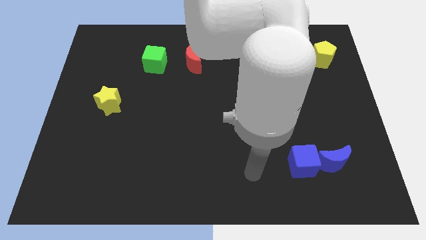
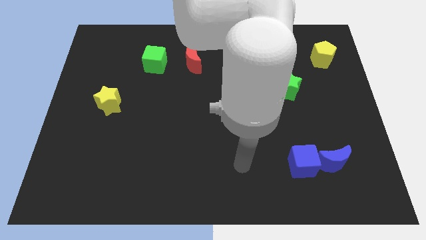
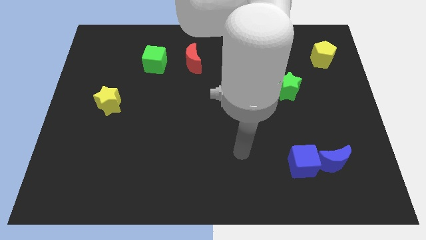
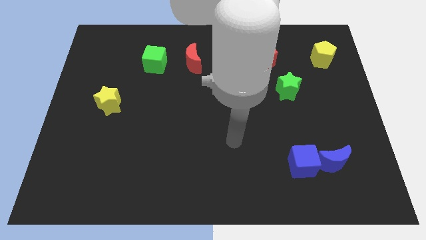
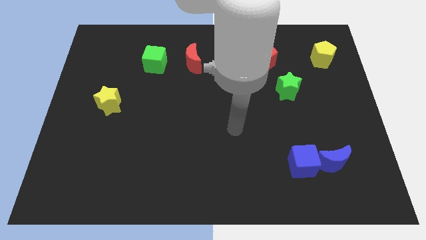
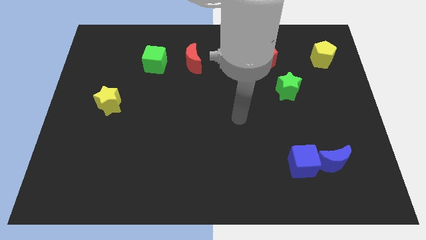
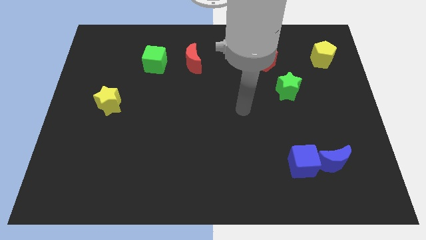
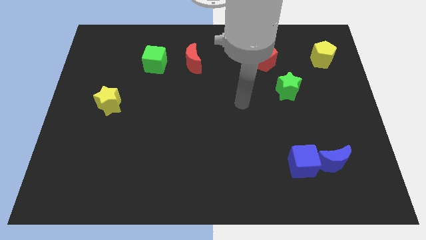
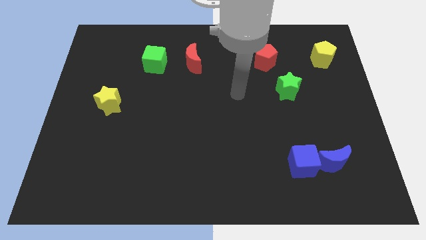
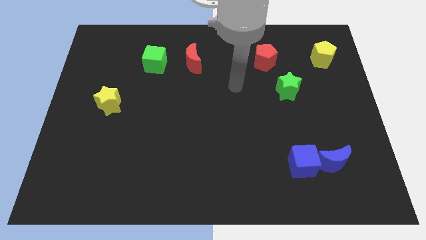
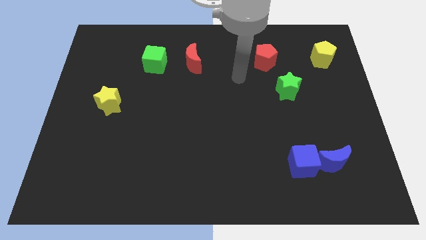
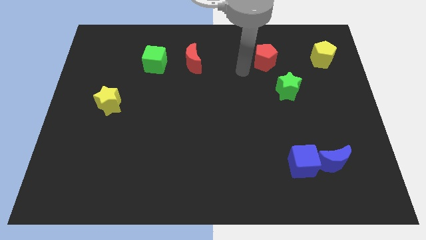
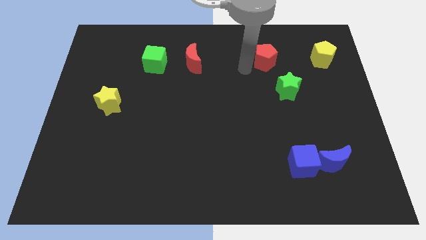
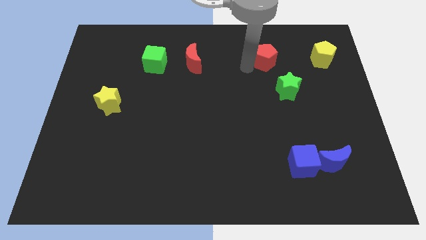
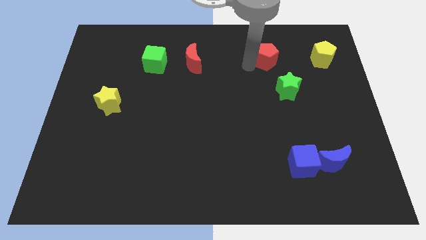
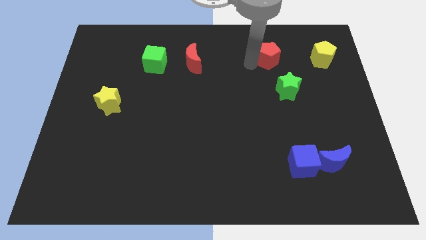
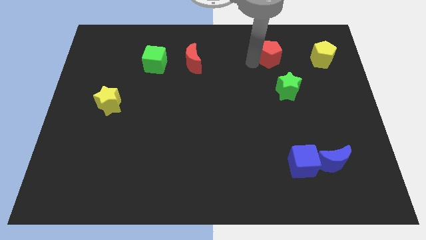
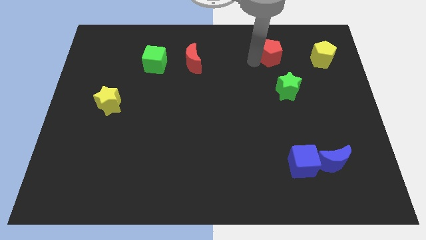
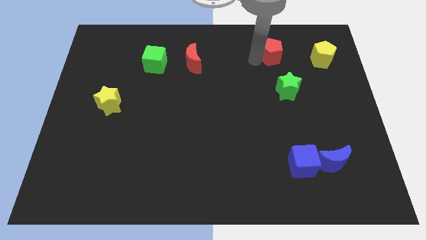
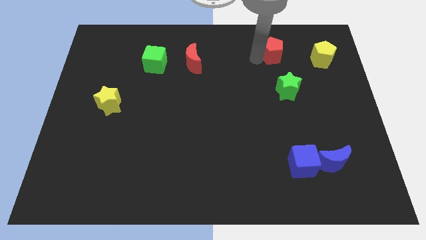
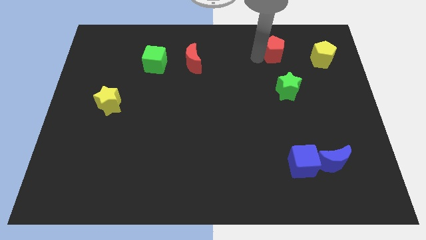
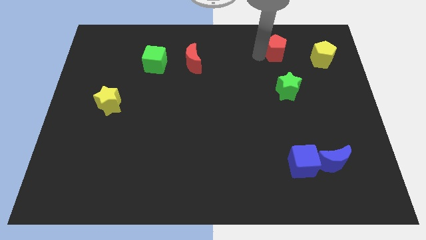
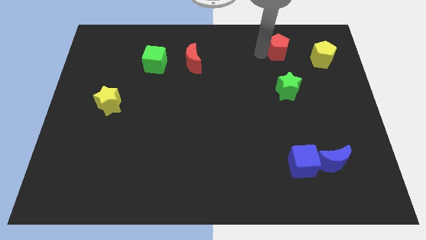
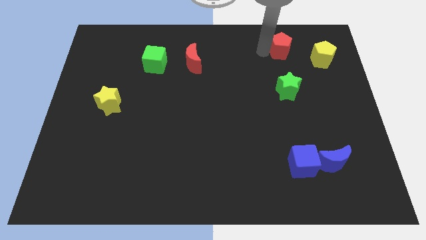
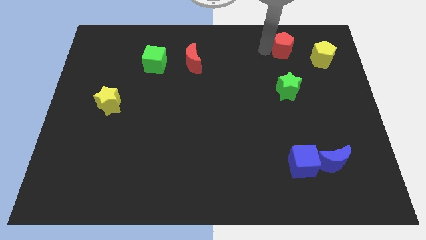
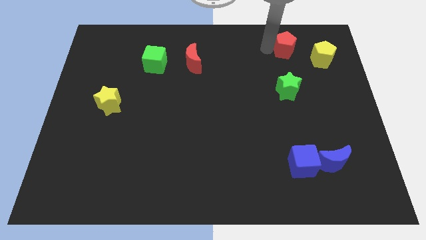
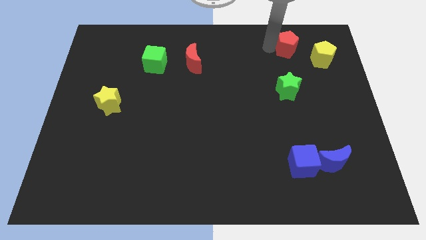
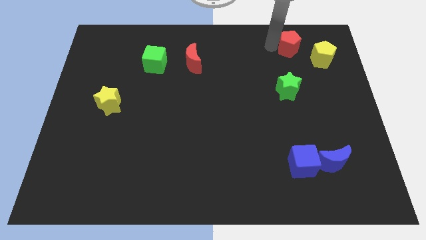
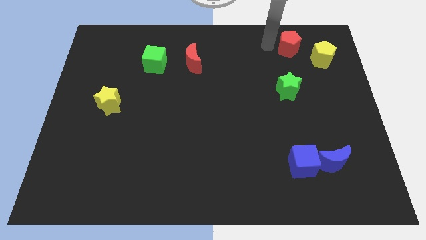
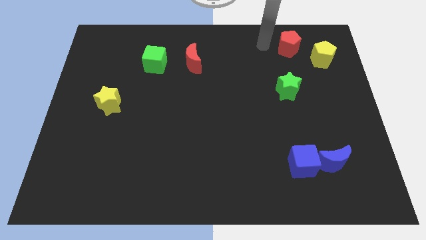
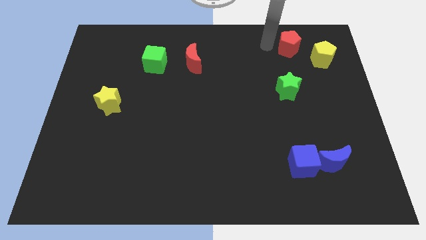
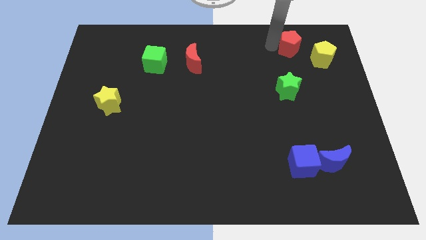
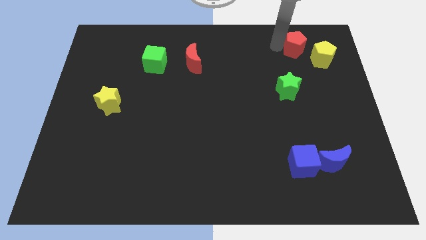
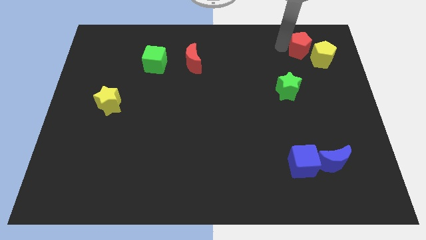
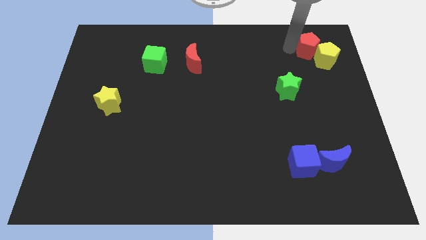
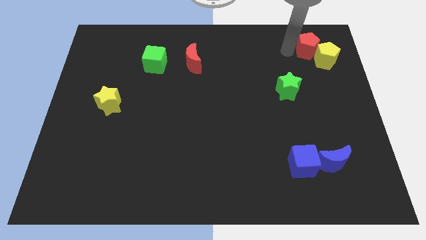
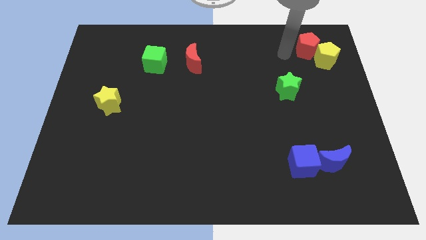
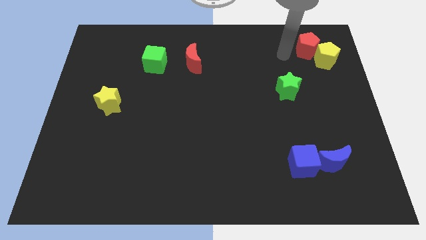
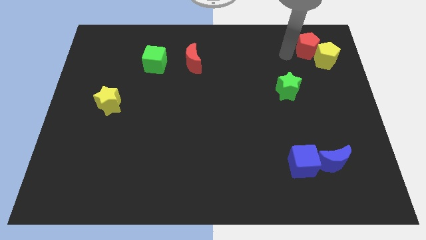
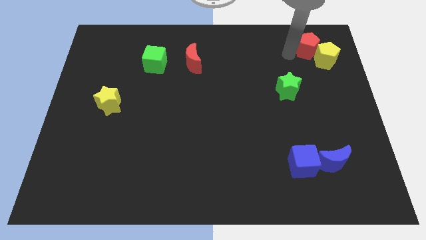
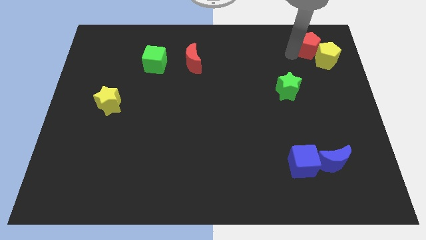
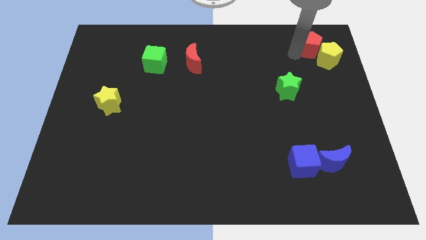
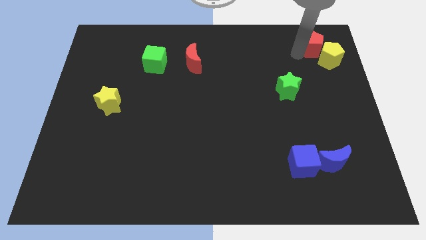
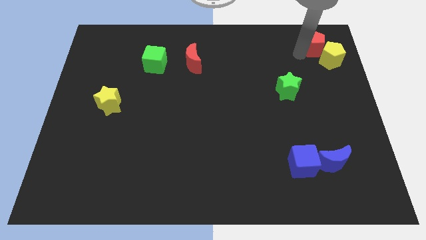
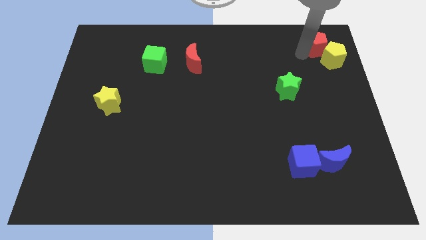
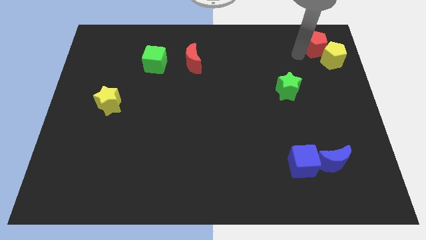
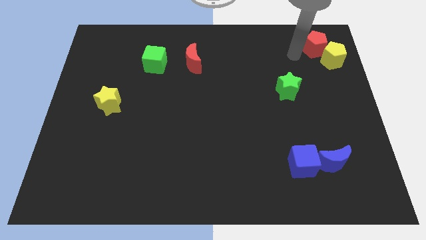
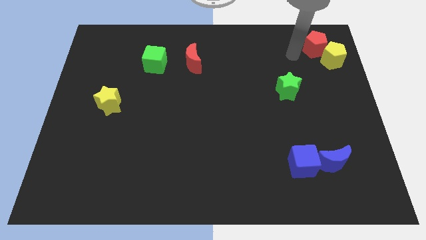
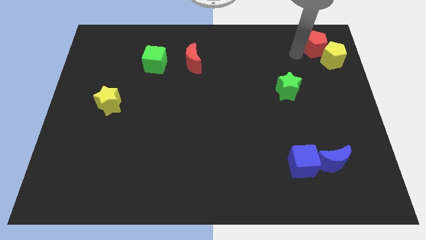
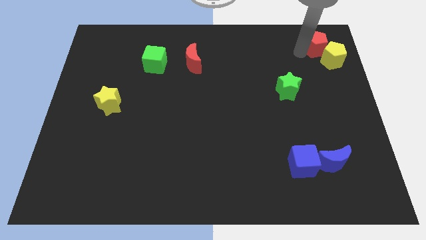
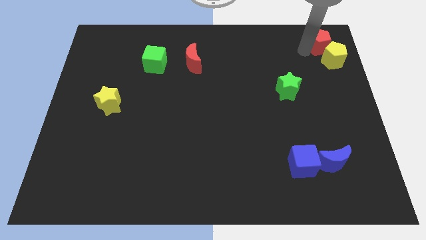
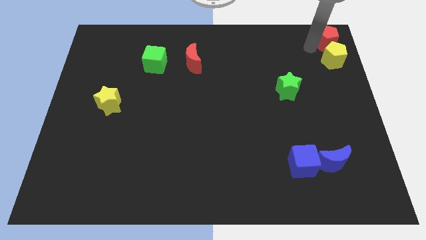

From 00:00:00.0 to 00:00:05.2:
move the red pentagon to the top right

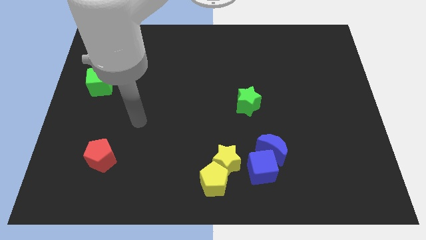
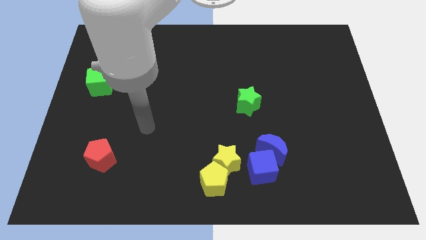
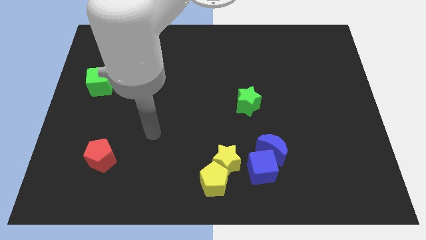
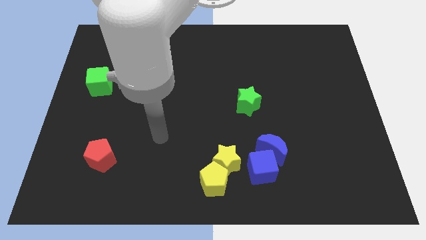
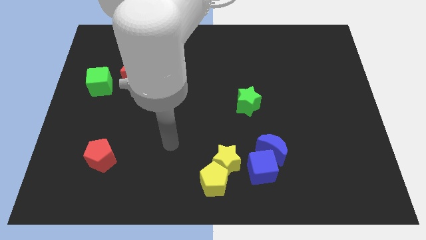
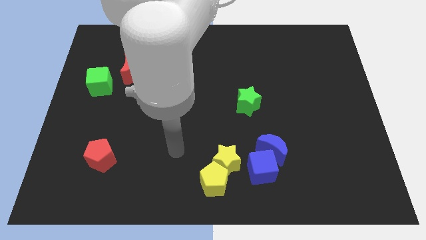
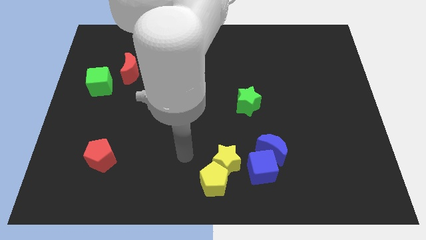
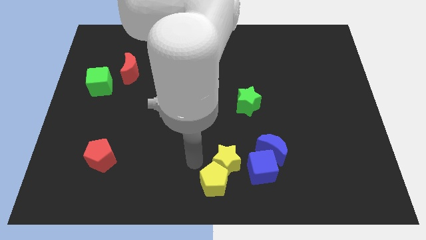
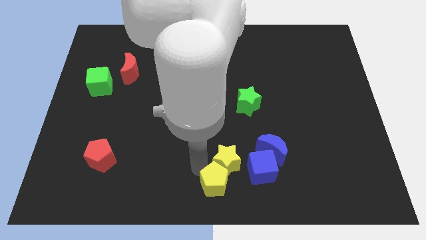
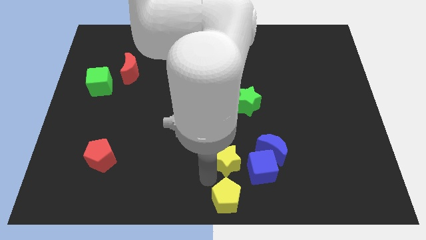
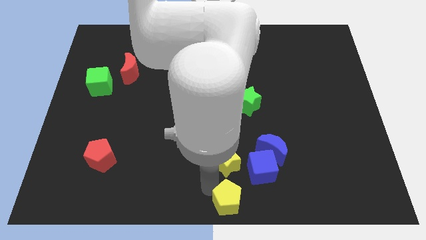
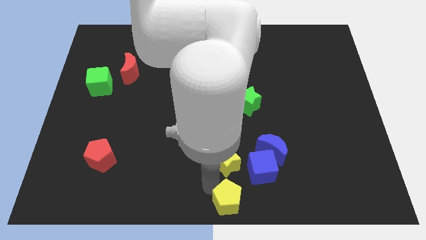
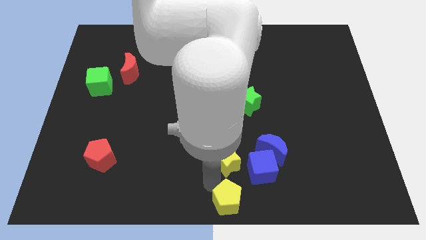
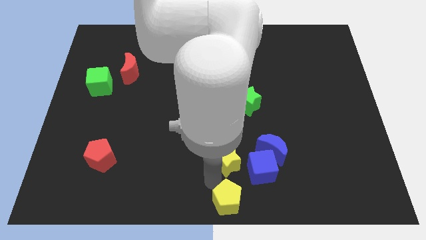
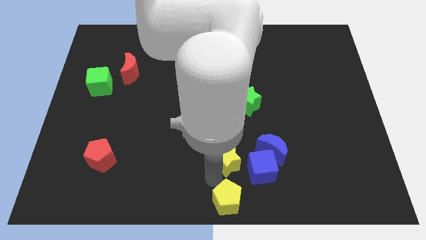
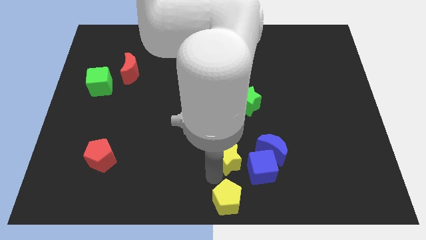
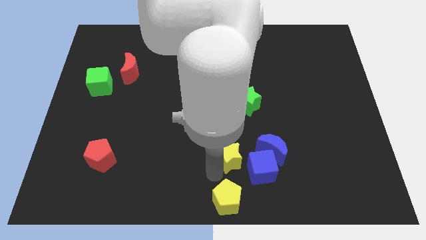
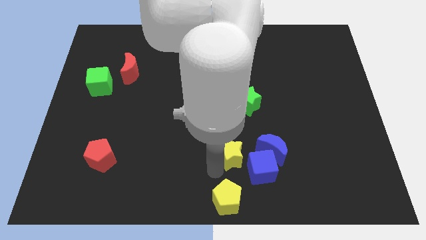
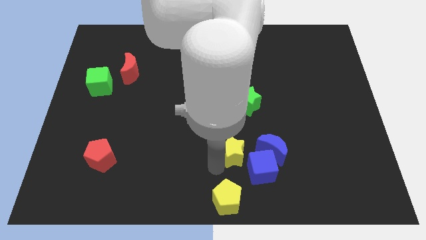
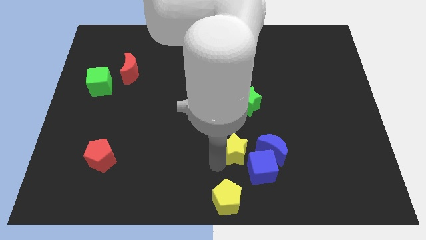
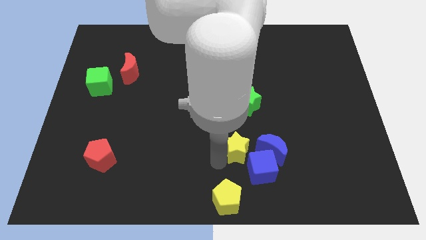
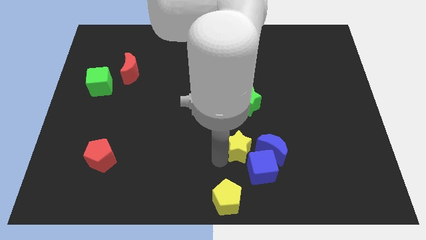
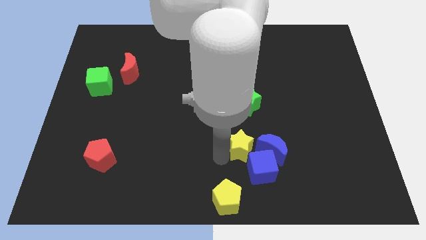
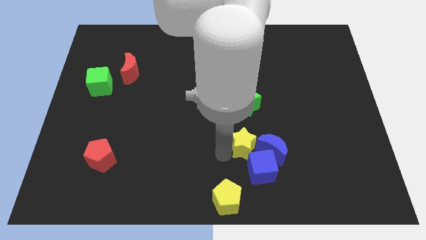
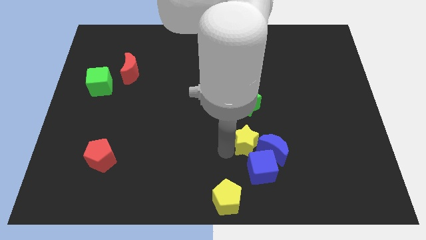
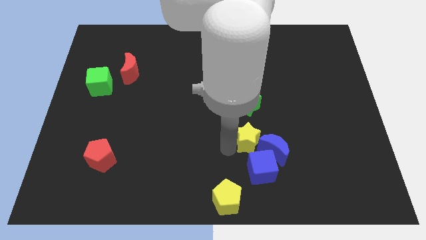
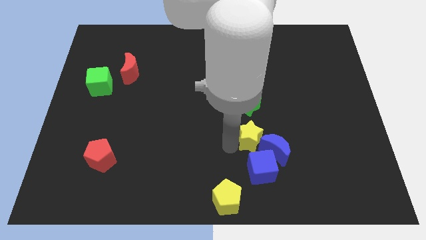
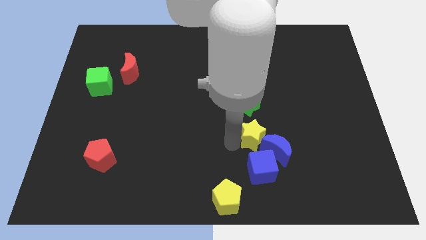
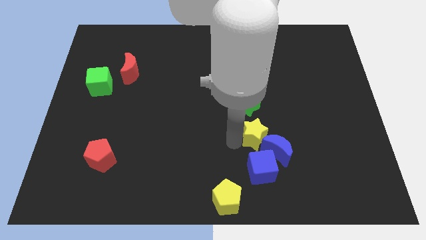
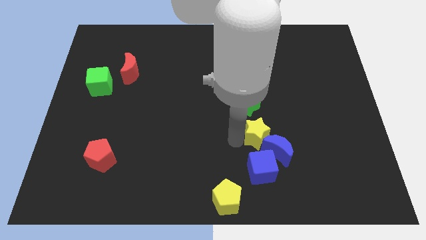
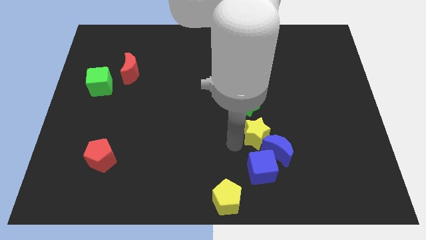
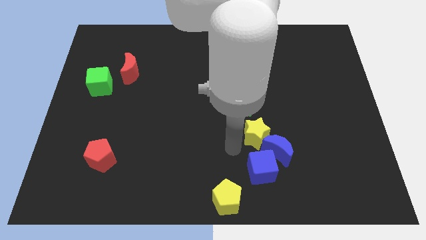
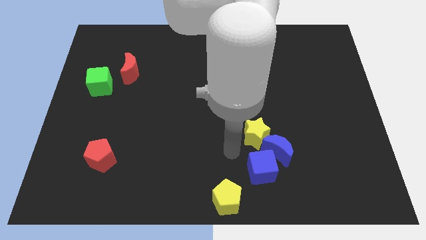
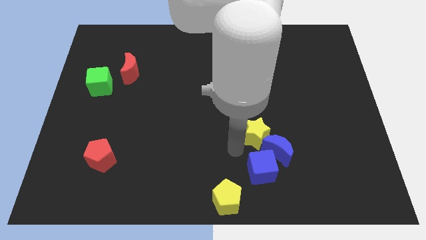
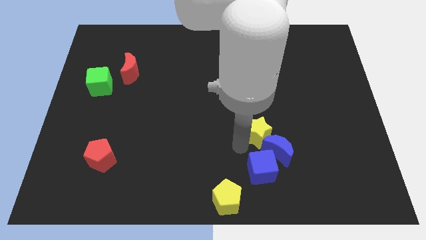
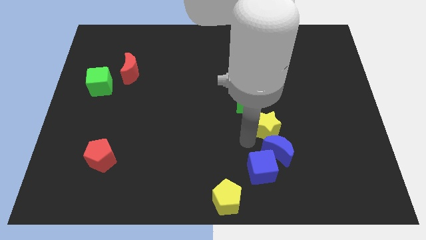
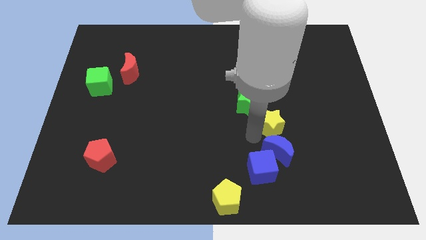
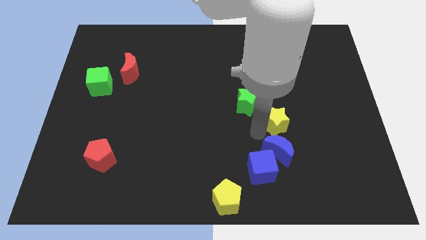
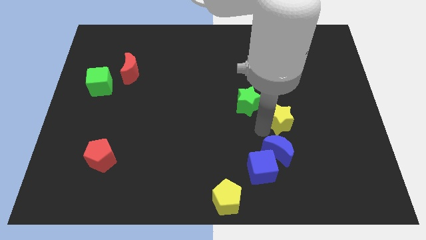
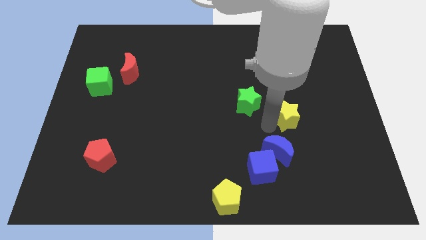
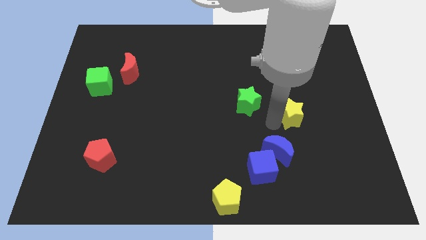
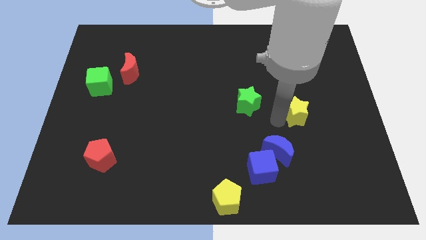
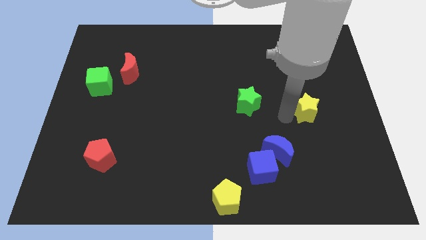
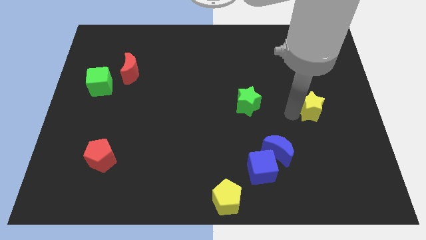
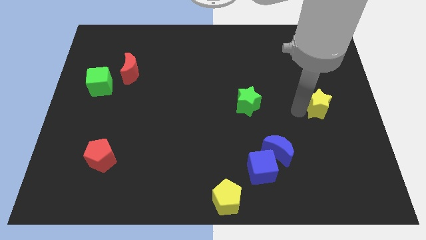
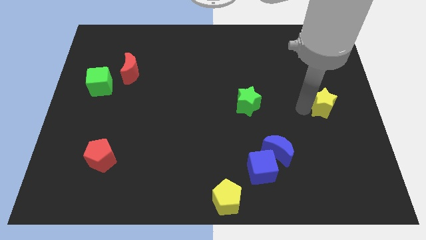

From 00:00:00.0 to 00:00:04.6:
push the yellow star to the center right
